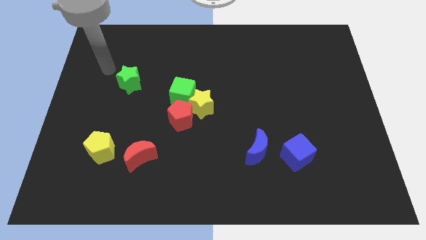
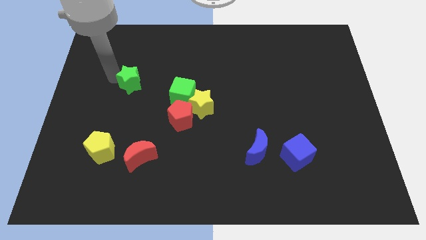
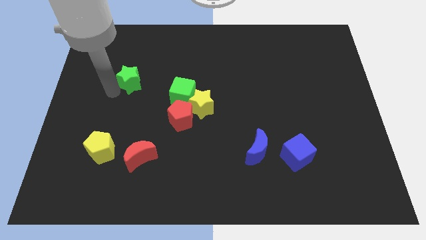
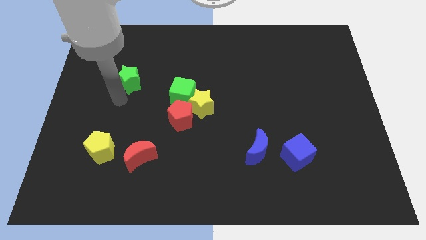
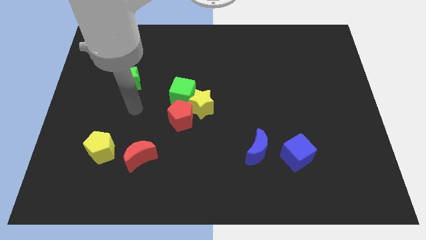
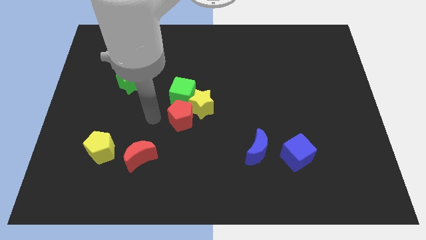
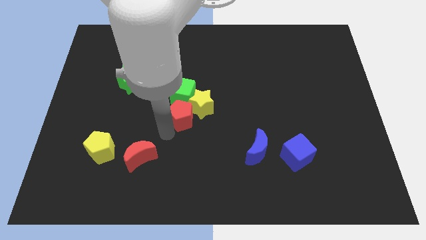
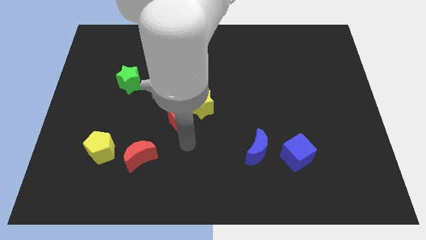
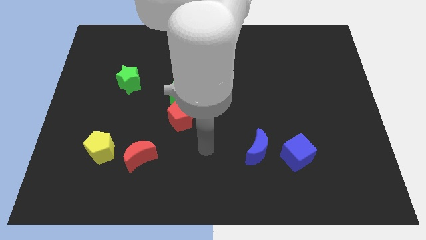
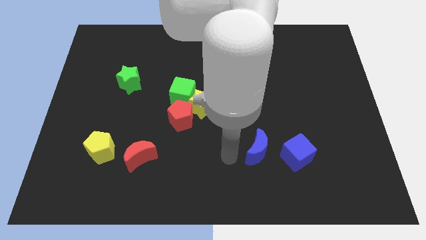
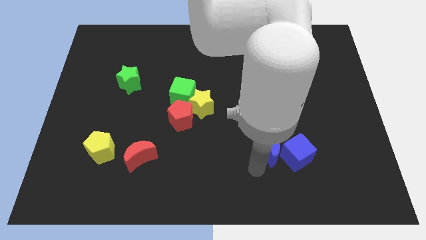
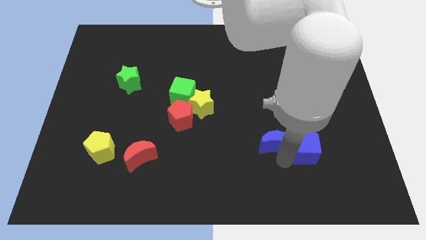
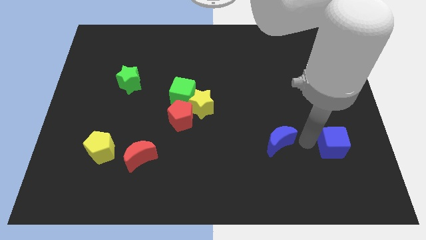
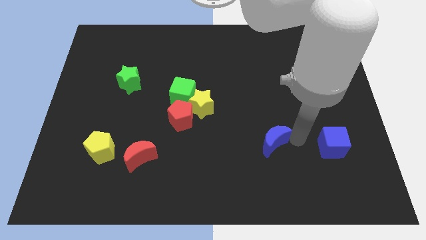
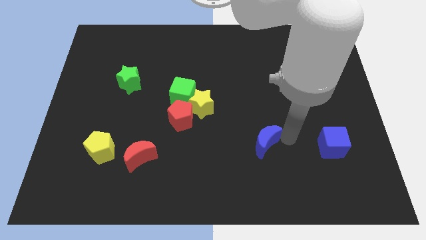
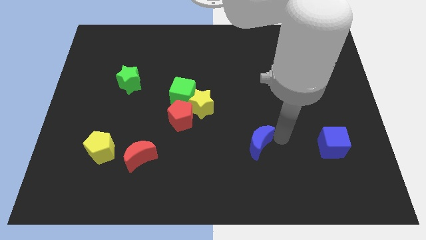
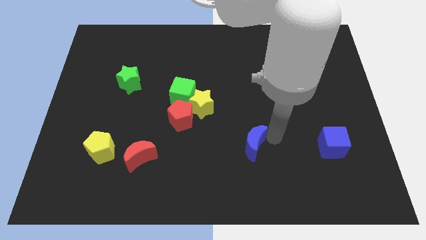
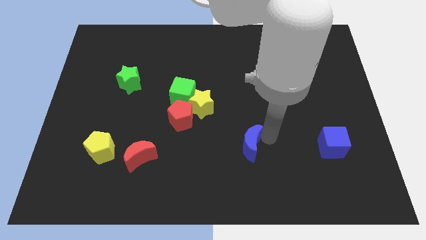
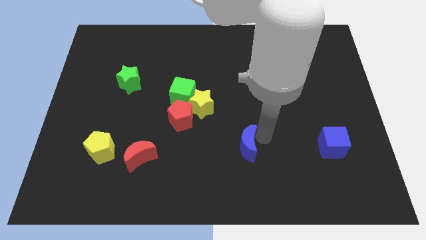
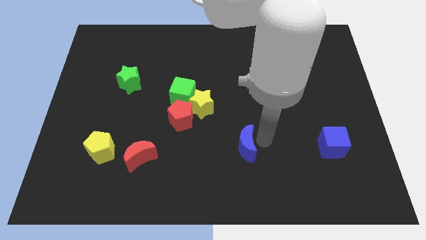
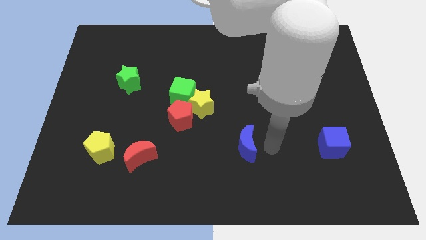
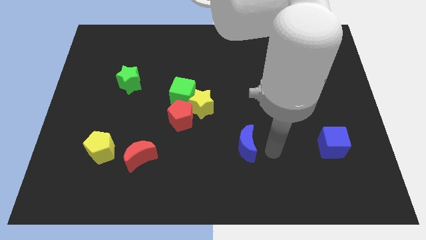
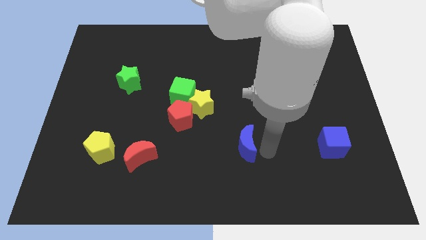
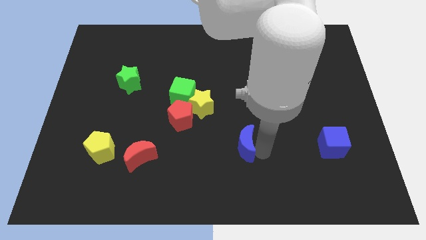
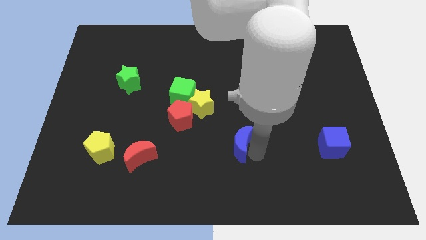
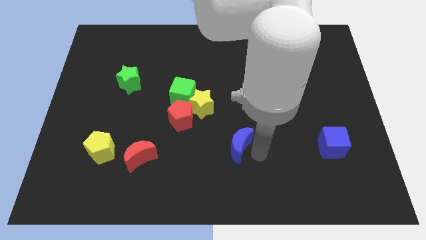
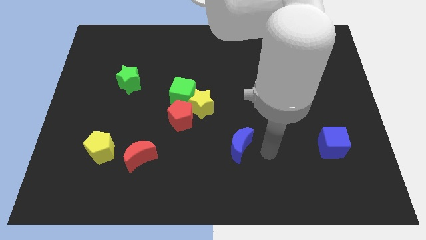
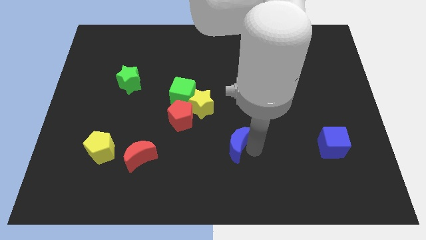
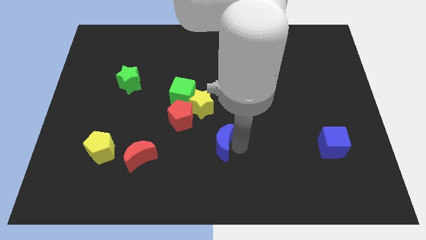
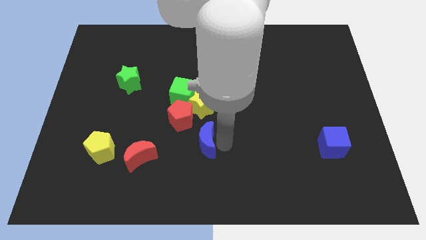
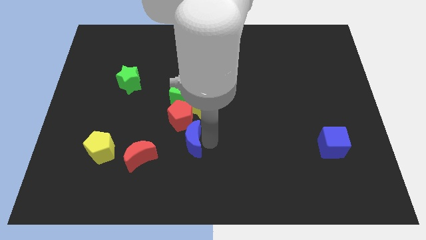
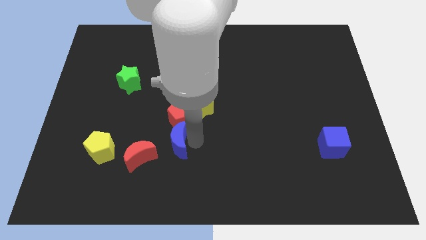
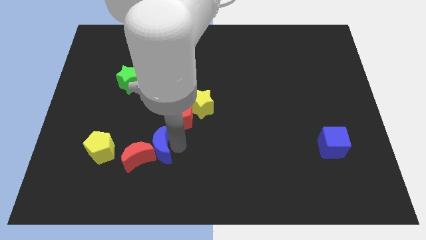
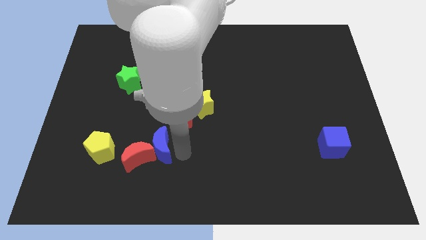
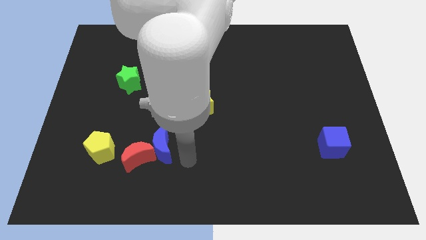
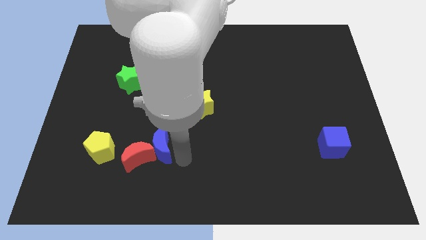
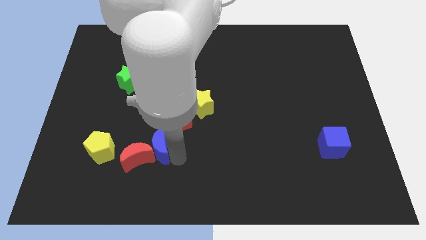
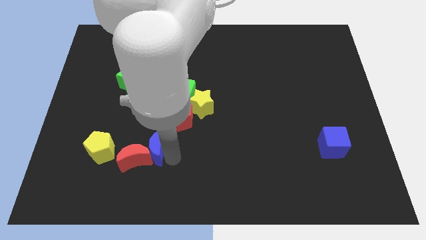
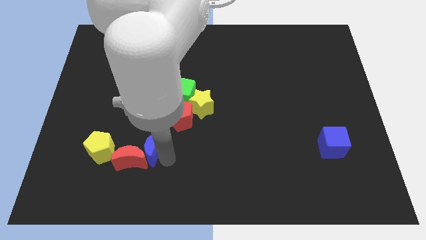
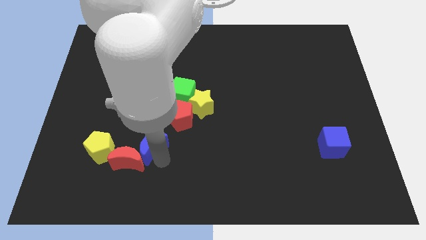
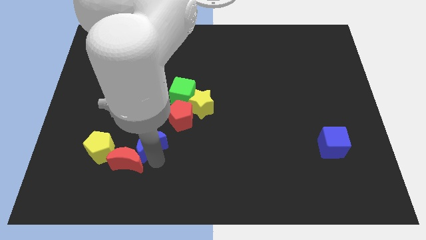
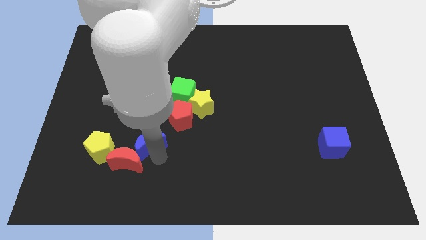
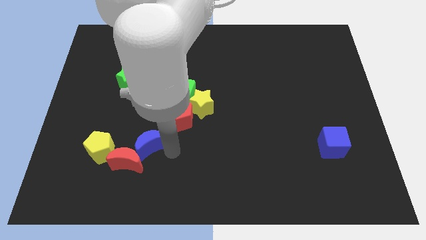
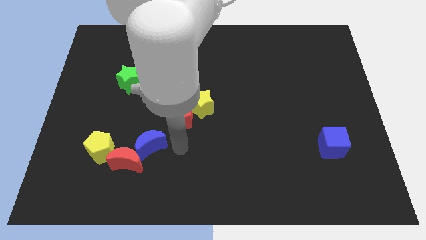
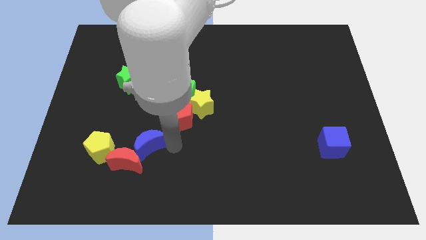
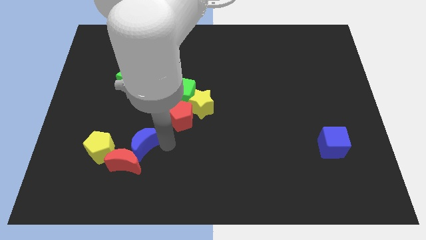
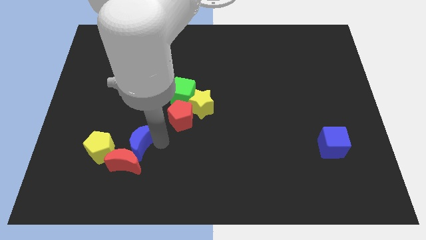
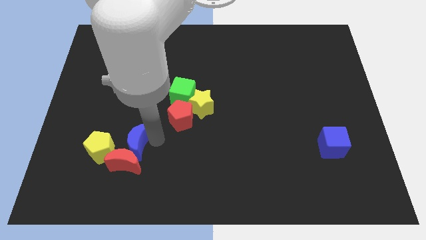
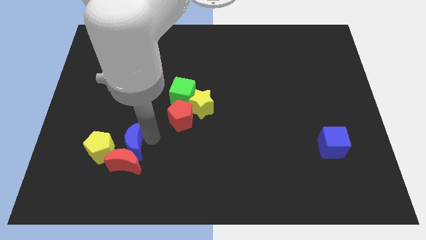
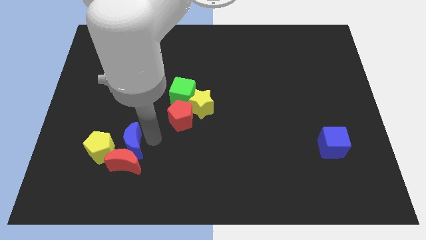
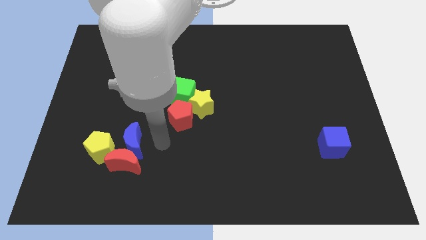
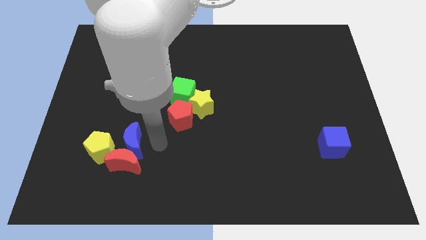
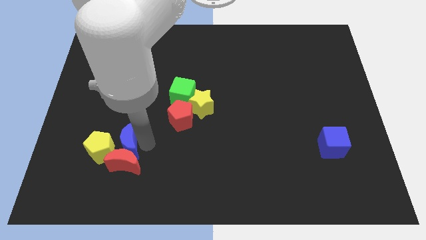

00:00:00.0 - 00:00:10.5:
put the blue moon close to the yellow pentagon

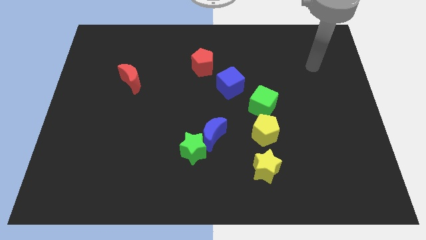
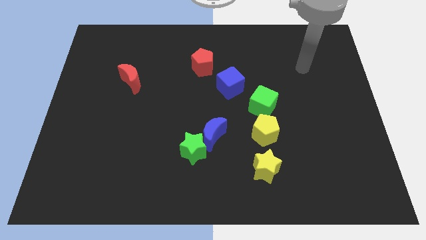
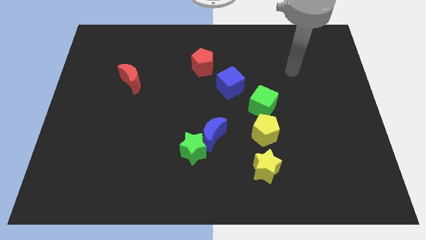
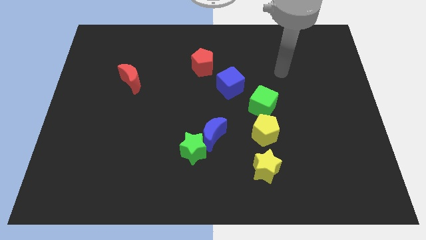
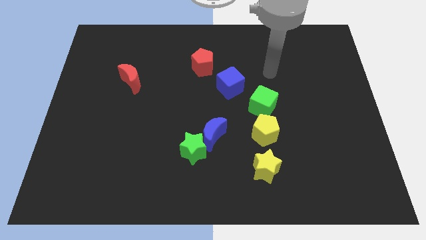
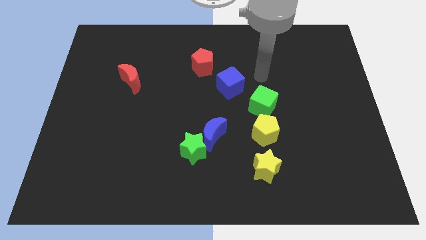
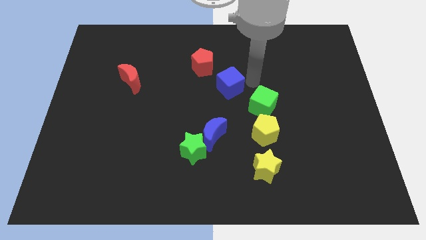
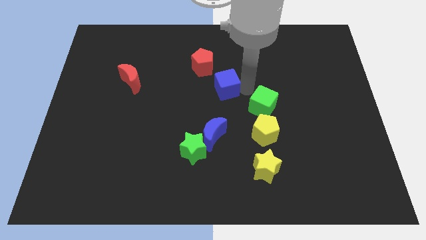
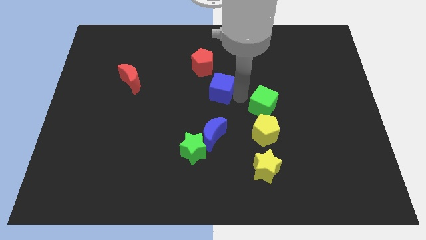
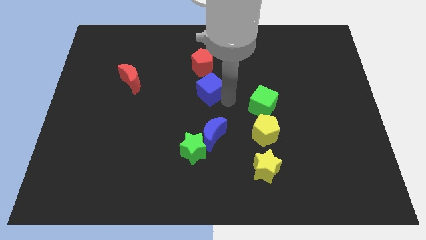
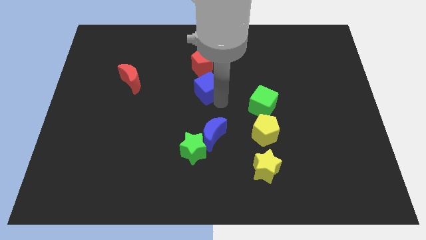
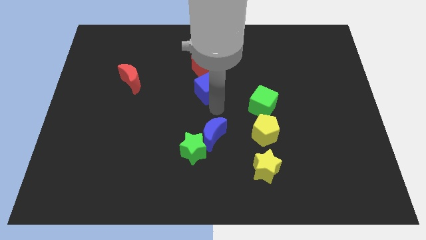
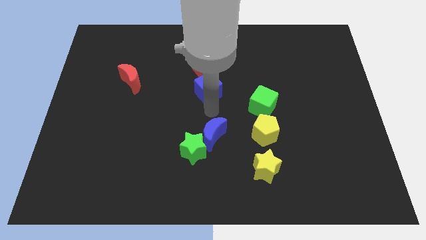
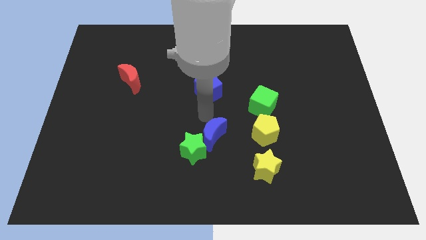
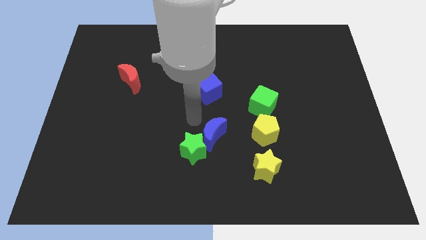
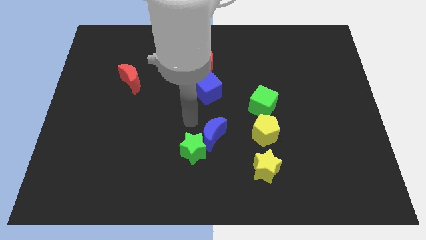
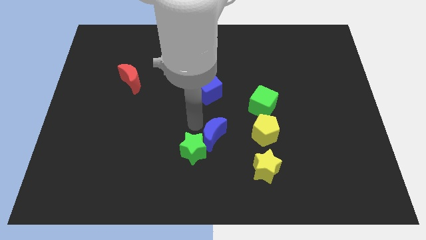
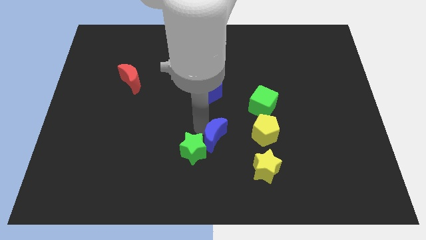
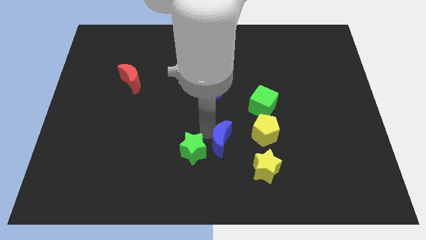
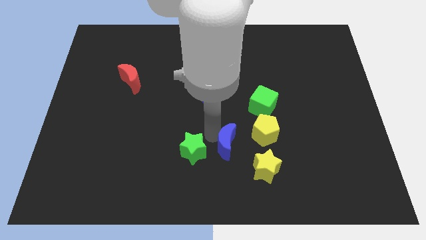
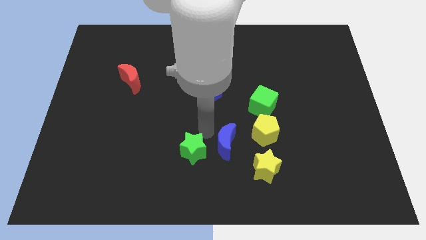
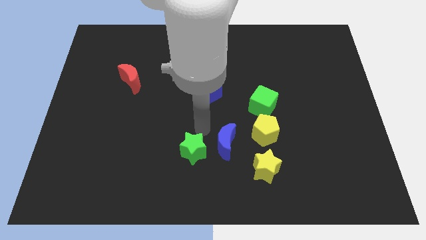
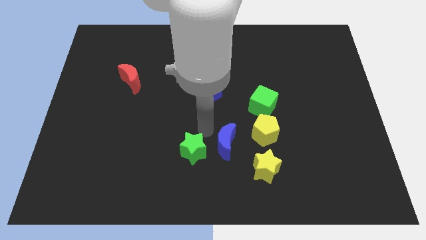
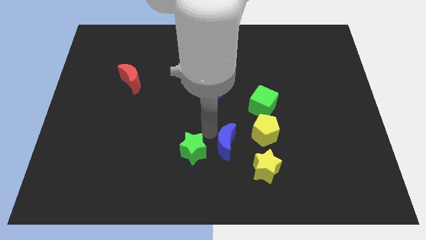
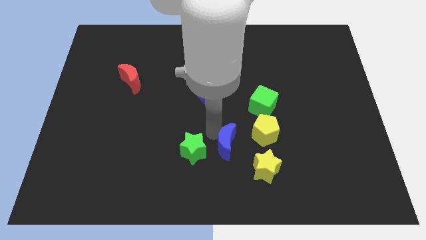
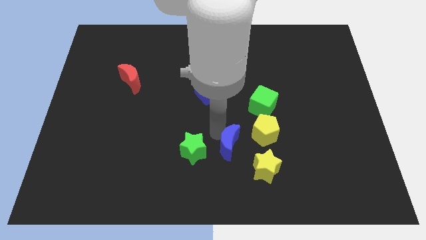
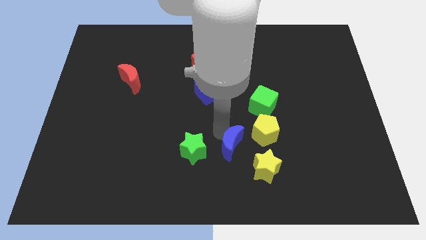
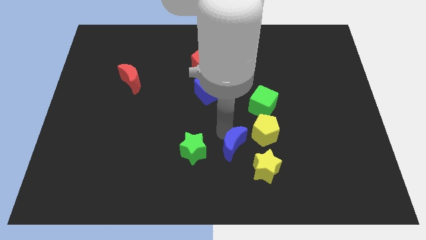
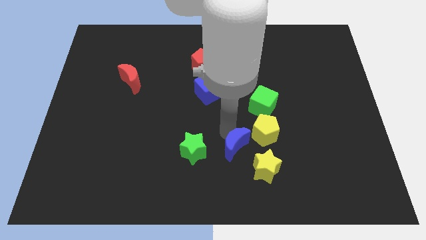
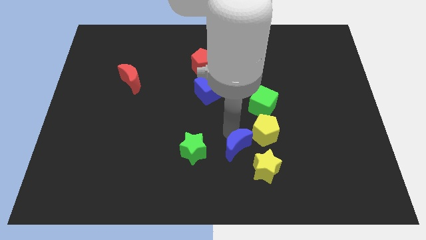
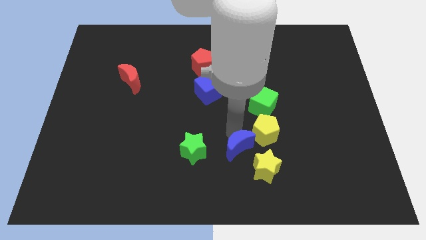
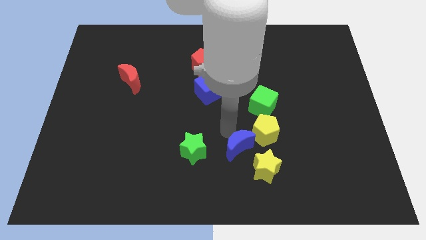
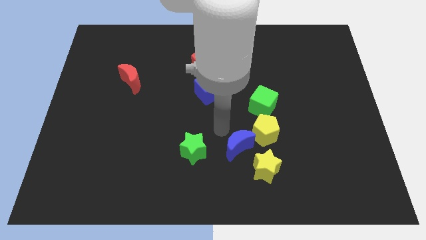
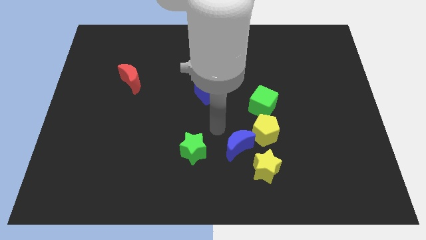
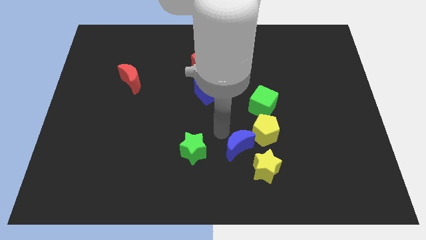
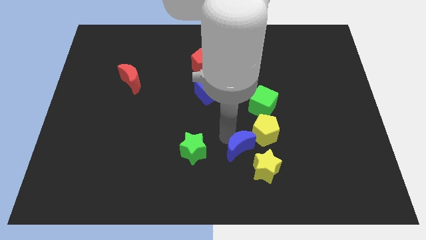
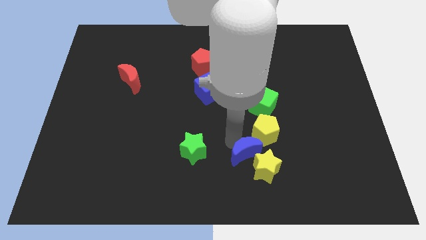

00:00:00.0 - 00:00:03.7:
put the blue moon close to the yellow star
